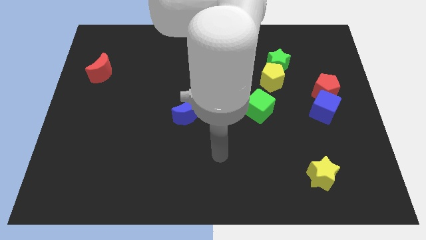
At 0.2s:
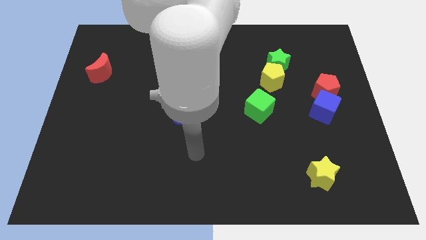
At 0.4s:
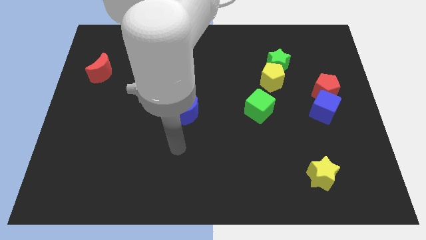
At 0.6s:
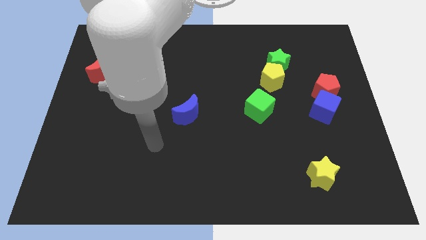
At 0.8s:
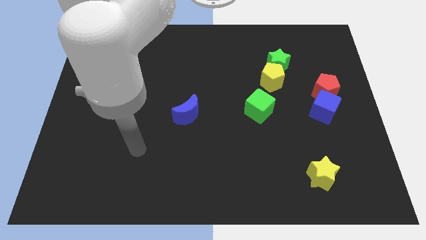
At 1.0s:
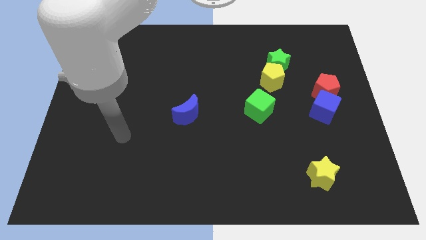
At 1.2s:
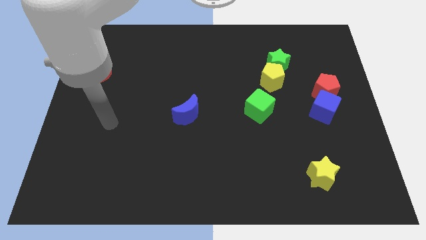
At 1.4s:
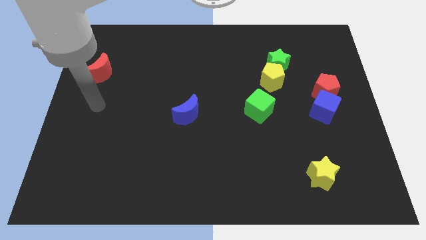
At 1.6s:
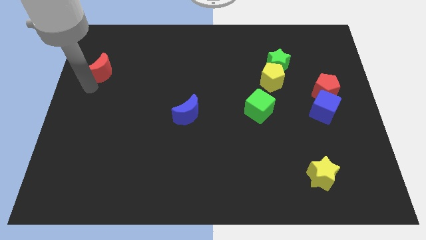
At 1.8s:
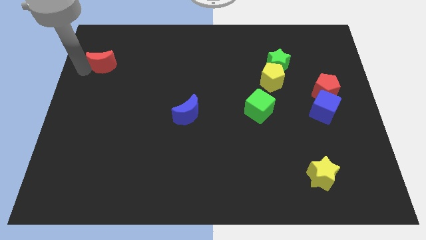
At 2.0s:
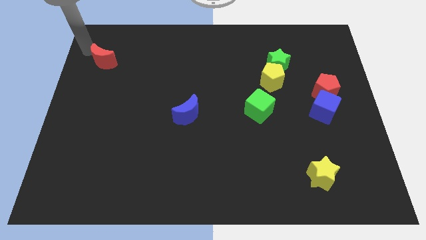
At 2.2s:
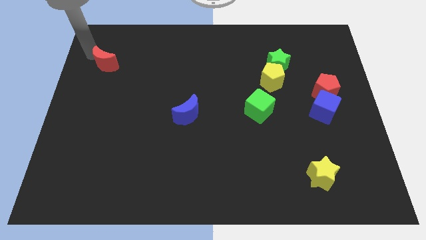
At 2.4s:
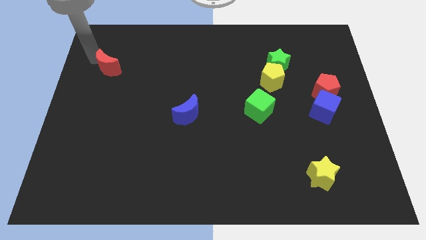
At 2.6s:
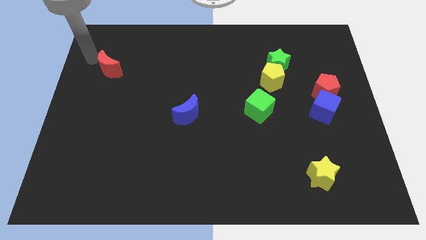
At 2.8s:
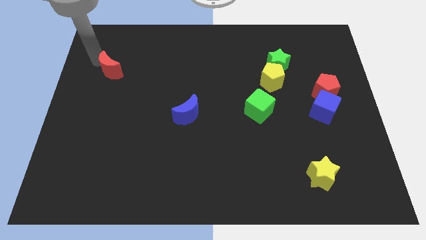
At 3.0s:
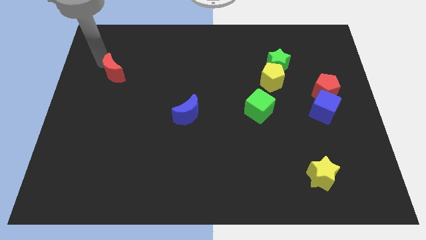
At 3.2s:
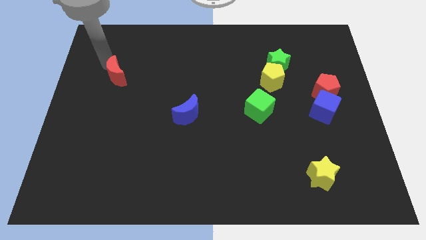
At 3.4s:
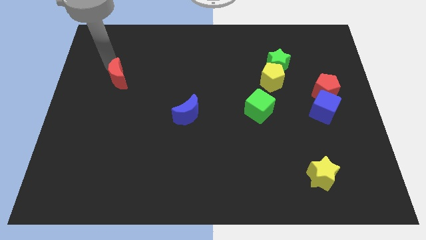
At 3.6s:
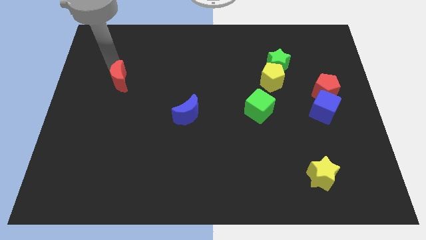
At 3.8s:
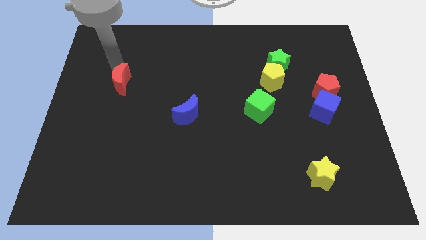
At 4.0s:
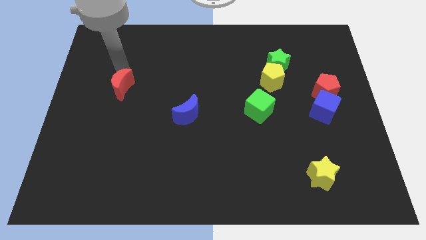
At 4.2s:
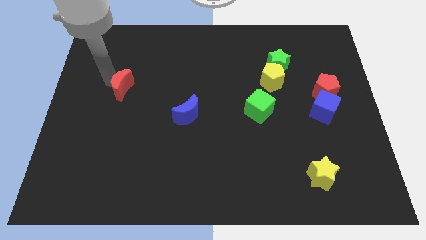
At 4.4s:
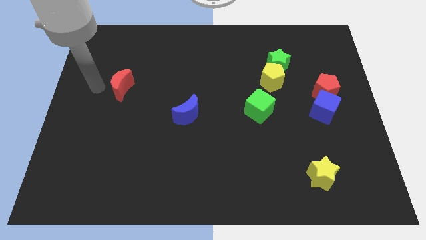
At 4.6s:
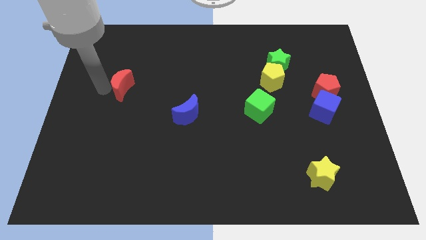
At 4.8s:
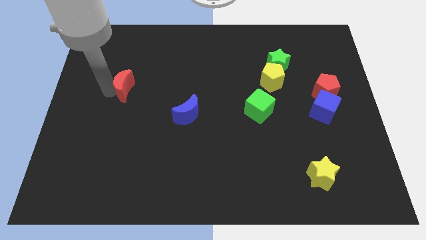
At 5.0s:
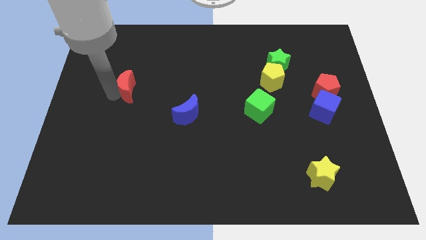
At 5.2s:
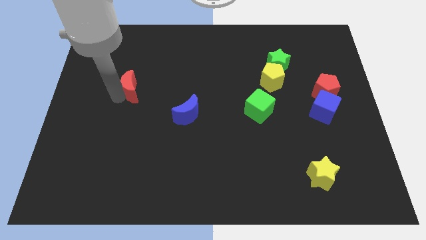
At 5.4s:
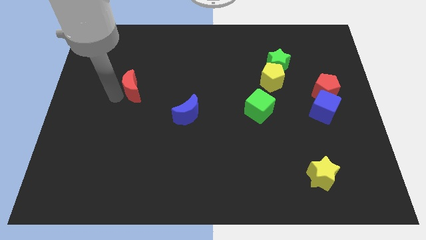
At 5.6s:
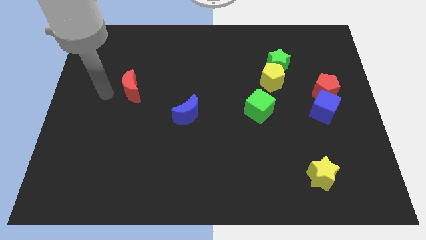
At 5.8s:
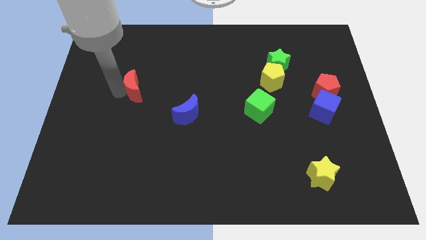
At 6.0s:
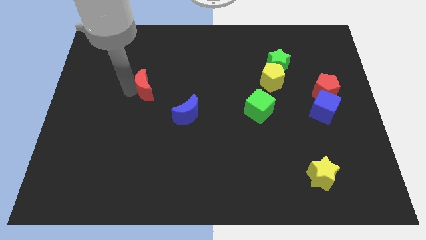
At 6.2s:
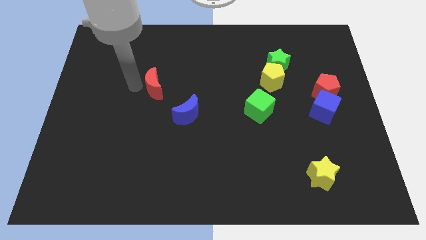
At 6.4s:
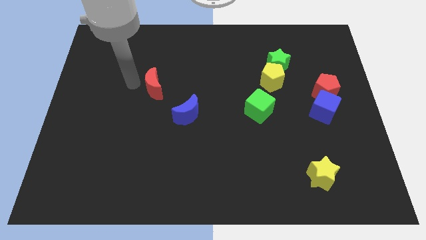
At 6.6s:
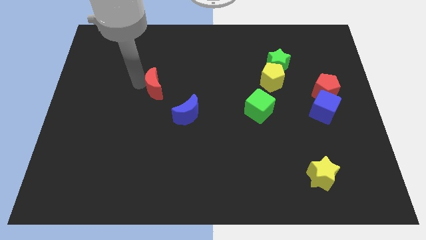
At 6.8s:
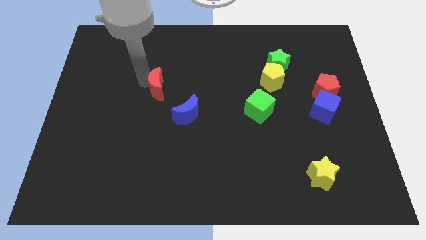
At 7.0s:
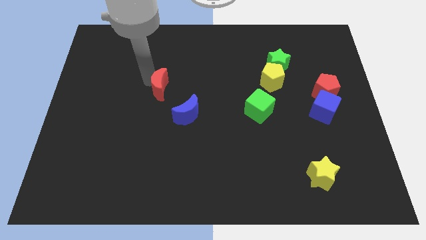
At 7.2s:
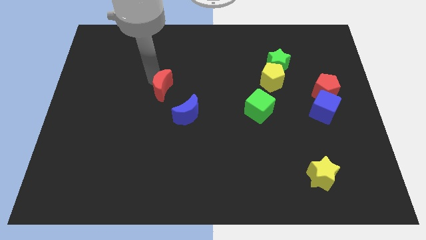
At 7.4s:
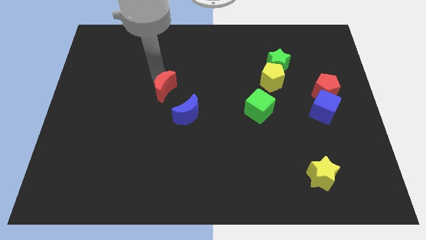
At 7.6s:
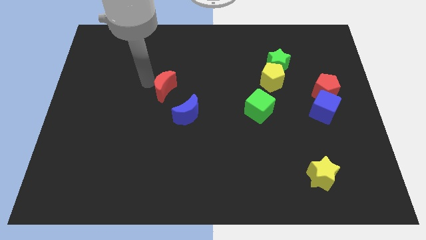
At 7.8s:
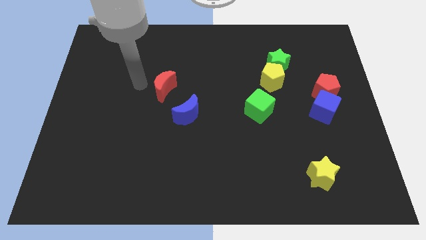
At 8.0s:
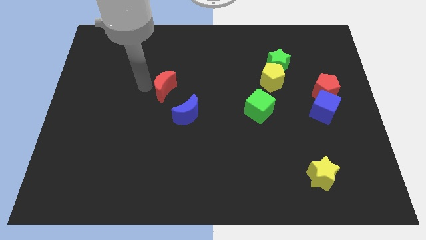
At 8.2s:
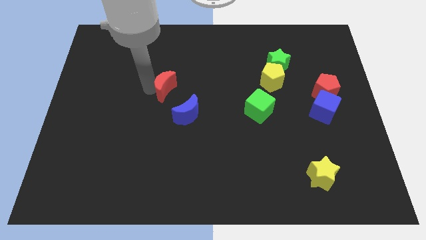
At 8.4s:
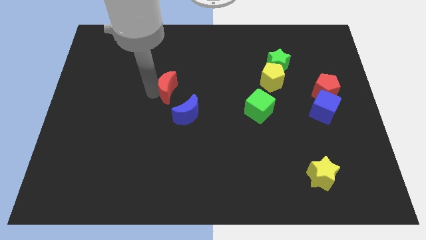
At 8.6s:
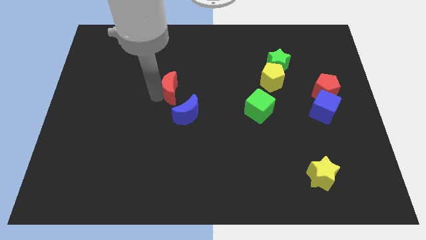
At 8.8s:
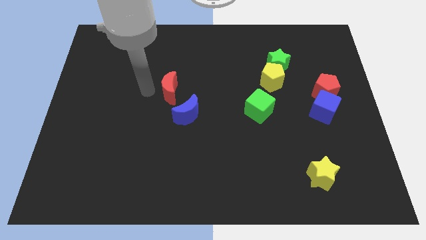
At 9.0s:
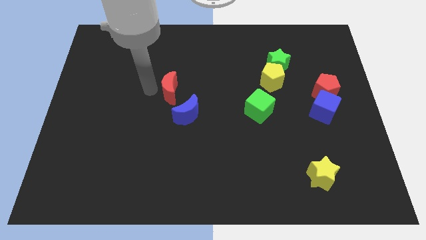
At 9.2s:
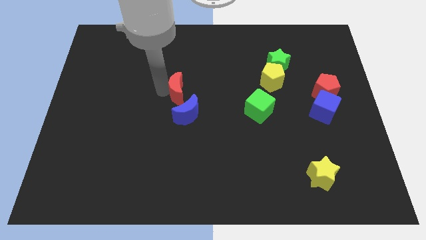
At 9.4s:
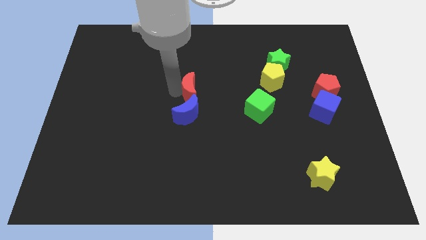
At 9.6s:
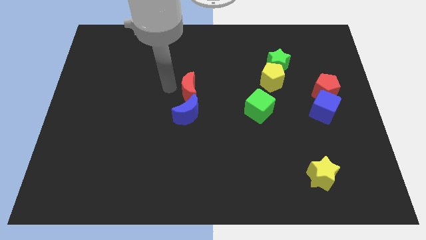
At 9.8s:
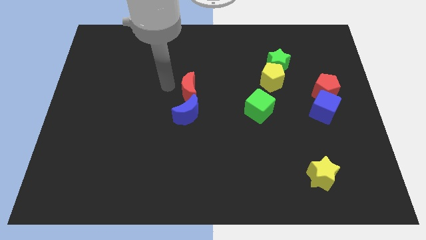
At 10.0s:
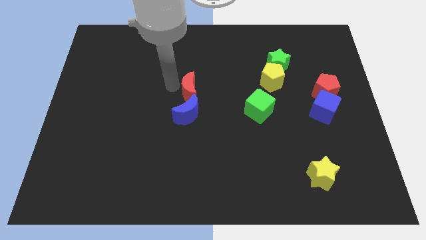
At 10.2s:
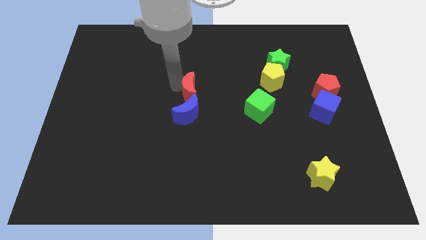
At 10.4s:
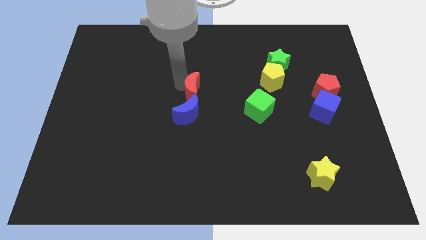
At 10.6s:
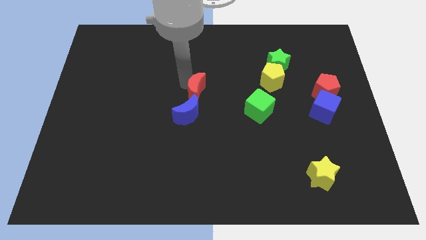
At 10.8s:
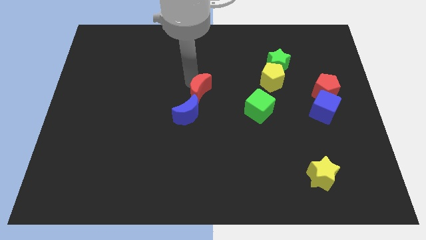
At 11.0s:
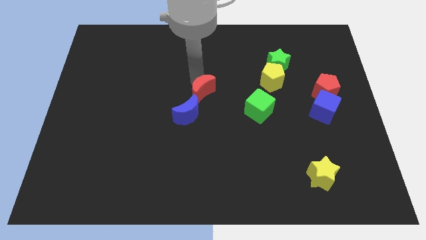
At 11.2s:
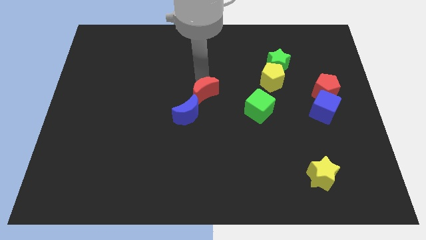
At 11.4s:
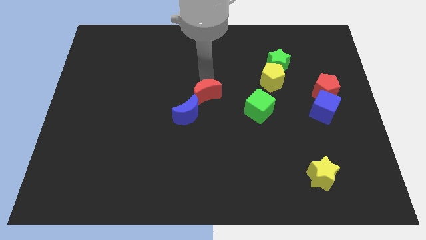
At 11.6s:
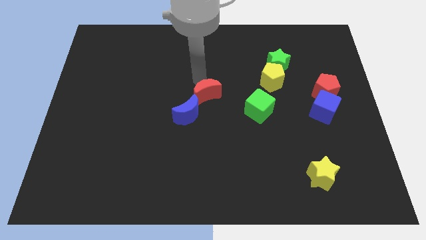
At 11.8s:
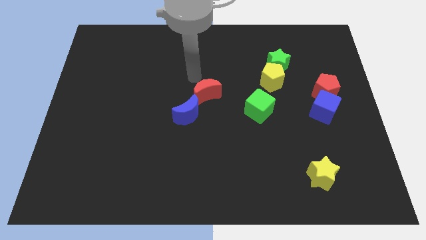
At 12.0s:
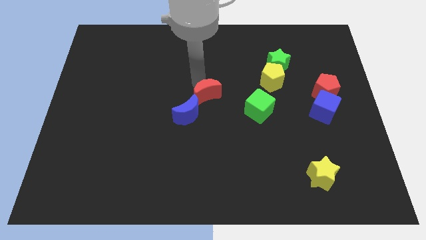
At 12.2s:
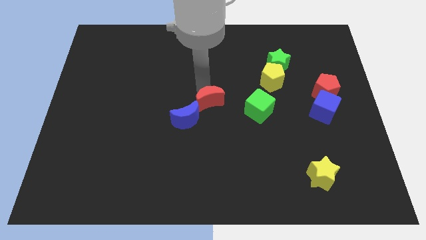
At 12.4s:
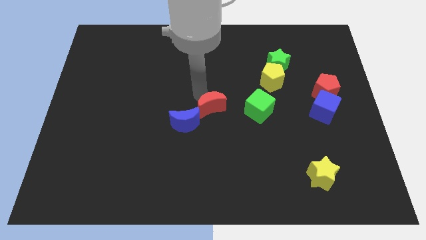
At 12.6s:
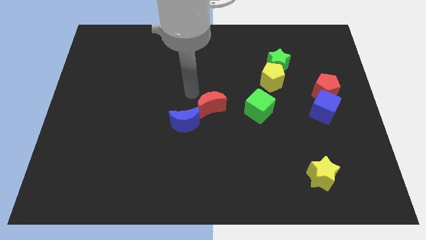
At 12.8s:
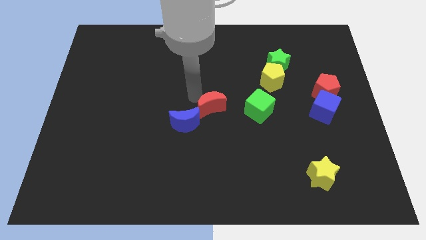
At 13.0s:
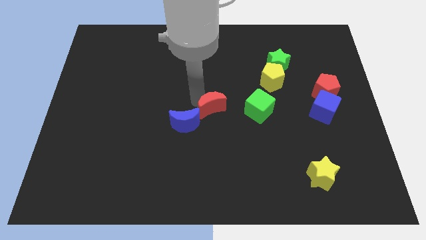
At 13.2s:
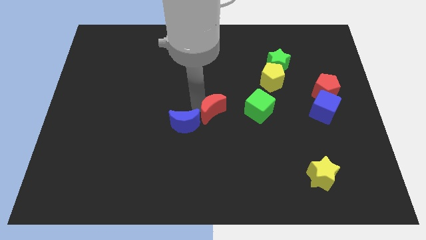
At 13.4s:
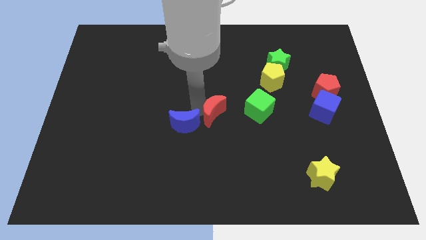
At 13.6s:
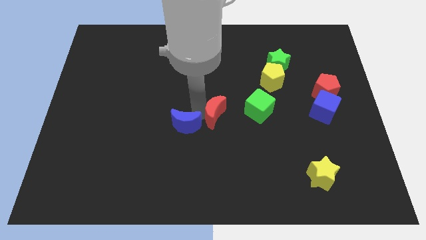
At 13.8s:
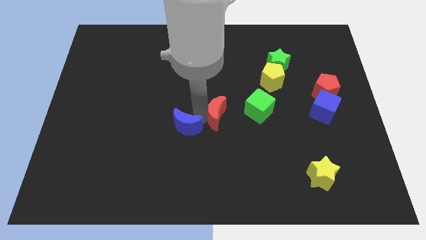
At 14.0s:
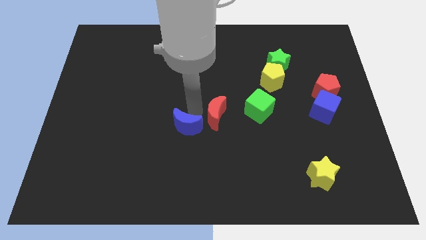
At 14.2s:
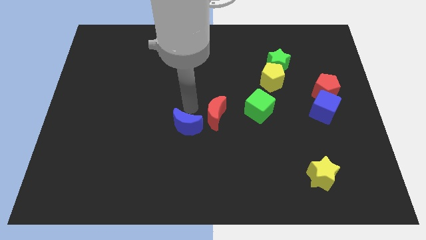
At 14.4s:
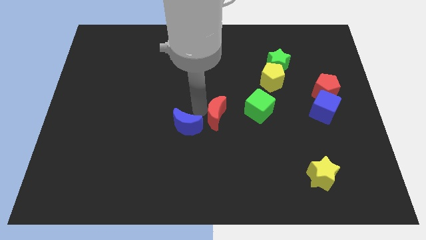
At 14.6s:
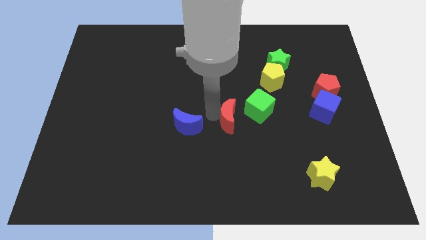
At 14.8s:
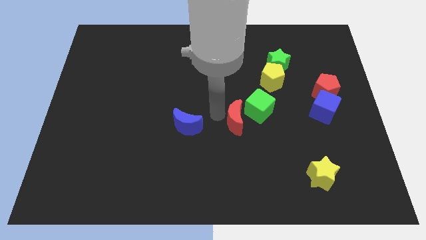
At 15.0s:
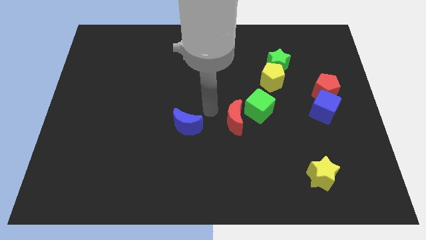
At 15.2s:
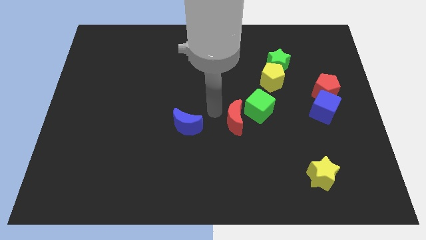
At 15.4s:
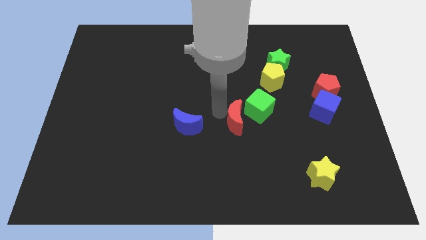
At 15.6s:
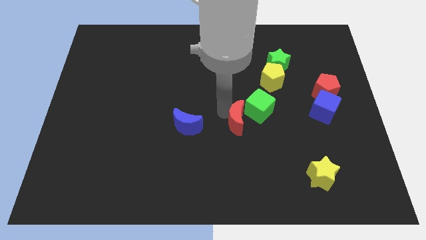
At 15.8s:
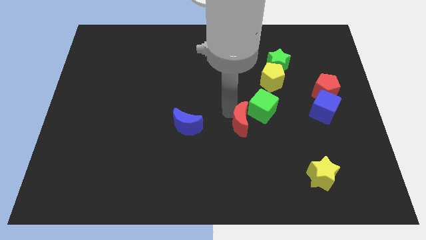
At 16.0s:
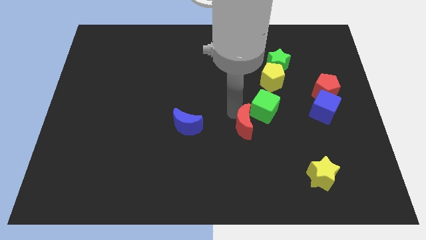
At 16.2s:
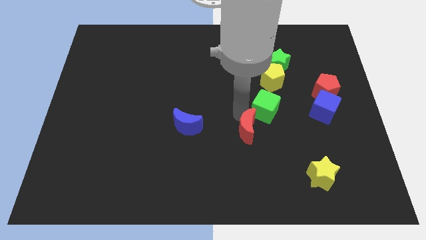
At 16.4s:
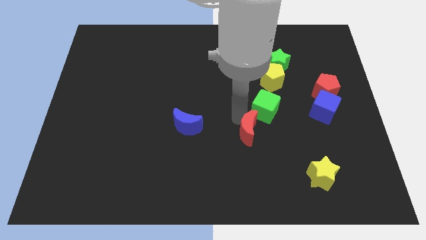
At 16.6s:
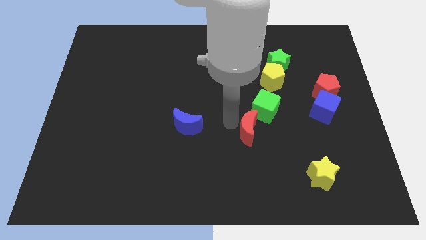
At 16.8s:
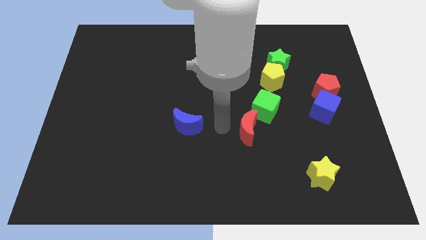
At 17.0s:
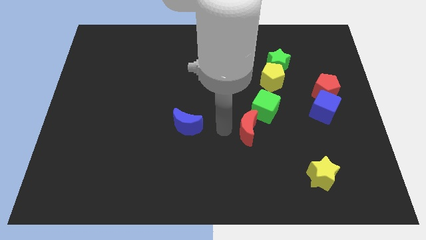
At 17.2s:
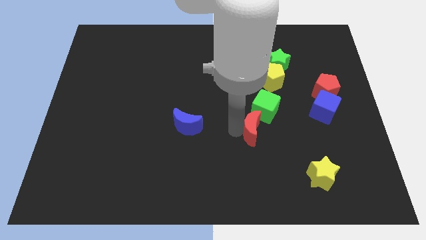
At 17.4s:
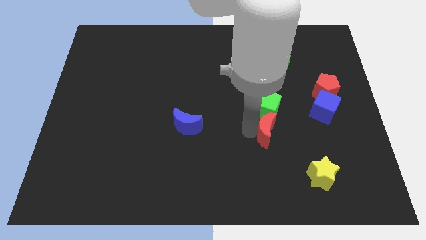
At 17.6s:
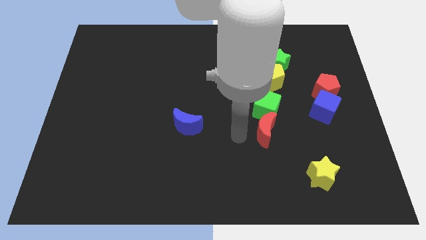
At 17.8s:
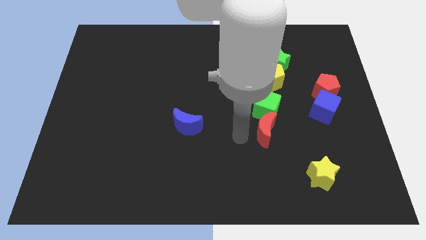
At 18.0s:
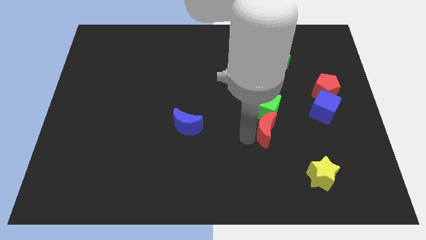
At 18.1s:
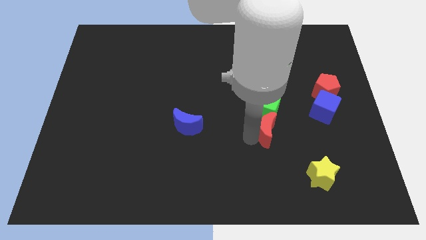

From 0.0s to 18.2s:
put the red moon diagonally down and to the right of the green cube
